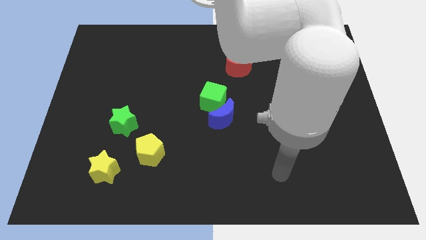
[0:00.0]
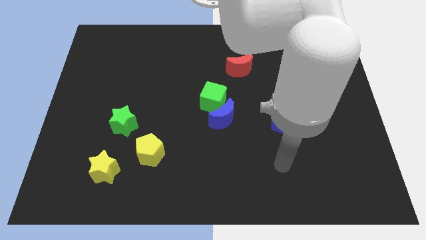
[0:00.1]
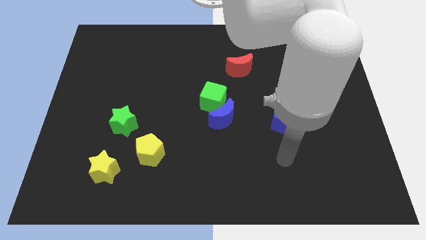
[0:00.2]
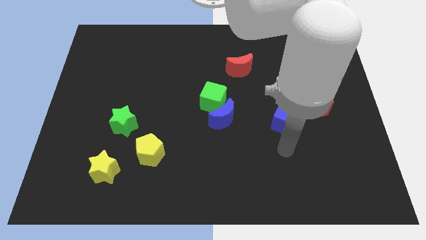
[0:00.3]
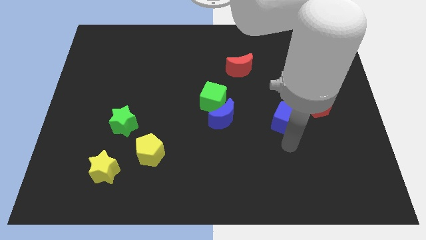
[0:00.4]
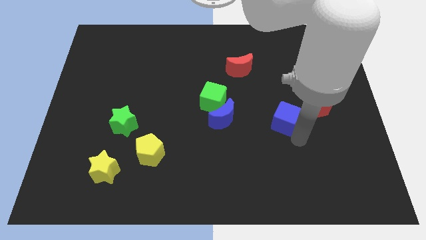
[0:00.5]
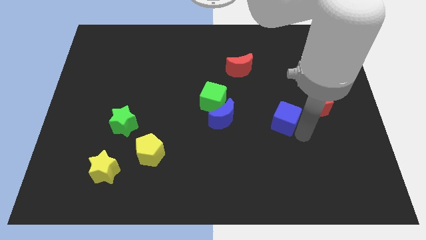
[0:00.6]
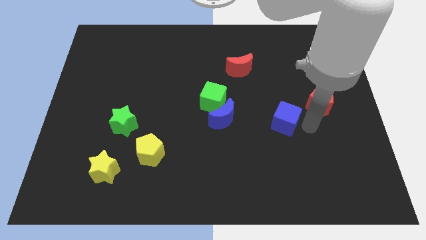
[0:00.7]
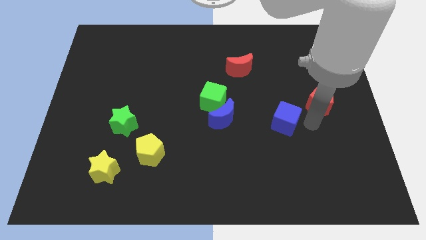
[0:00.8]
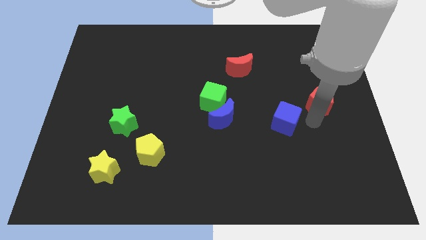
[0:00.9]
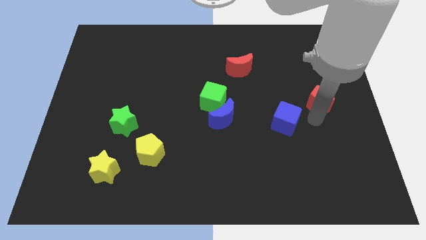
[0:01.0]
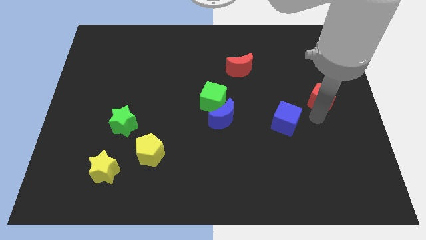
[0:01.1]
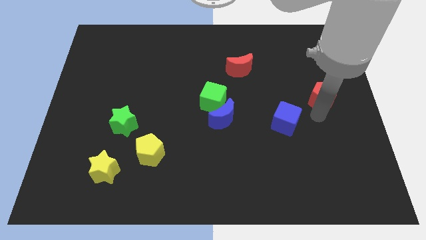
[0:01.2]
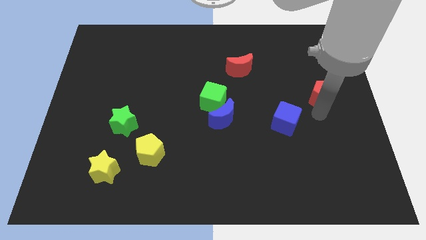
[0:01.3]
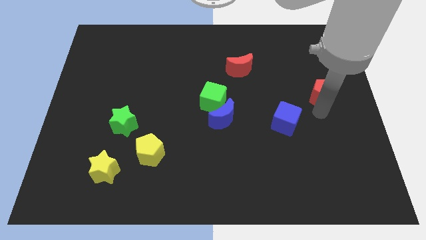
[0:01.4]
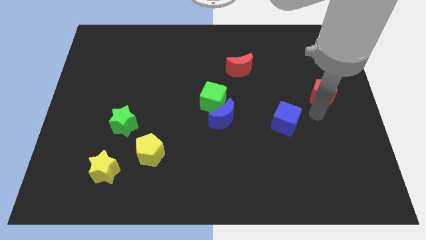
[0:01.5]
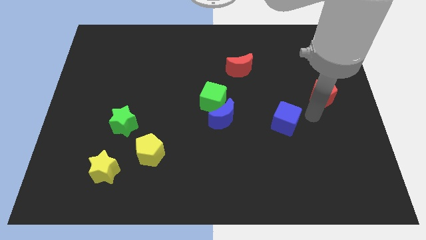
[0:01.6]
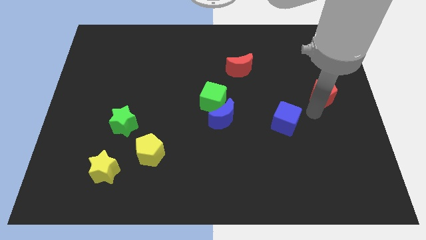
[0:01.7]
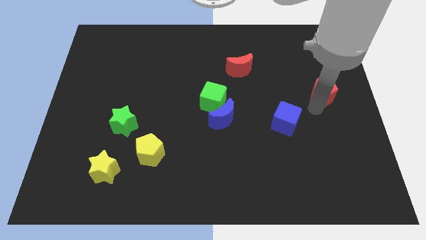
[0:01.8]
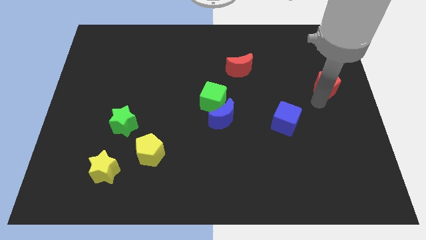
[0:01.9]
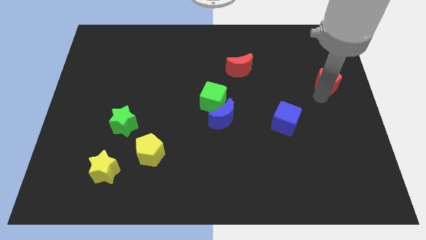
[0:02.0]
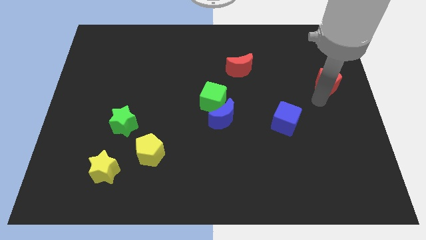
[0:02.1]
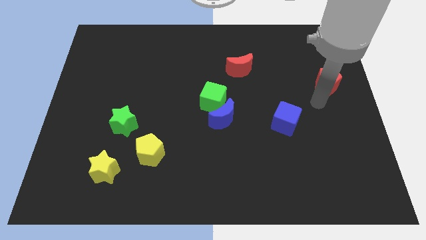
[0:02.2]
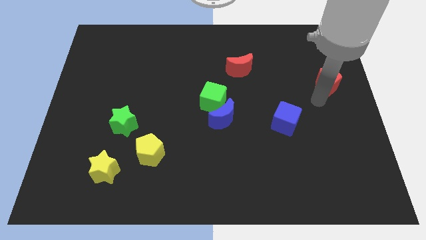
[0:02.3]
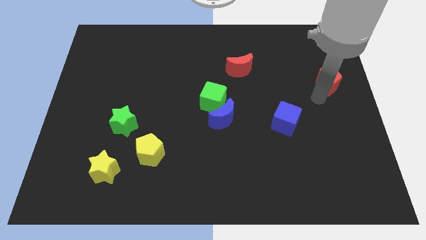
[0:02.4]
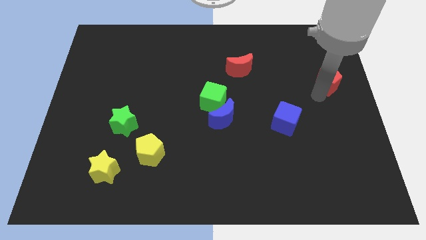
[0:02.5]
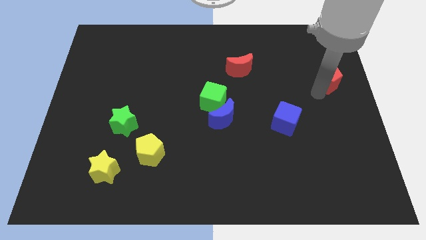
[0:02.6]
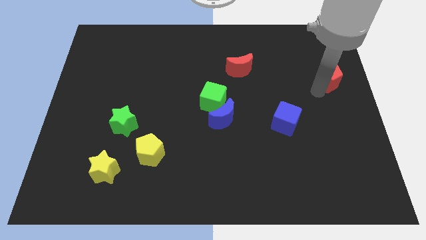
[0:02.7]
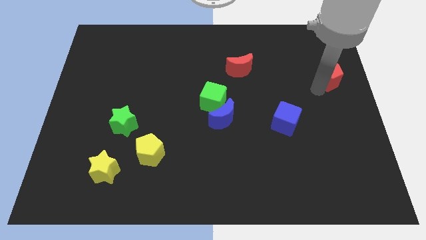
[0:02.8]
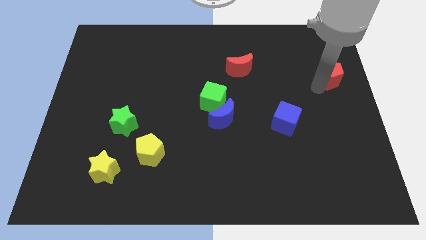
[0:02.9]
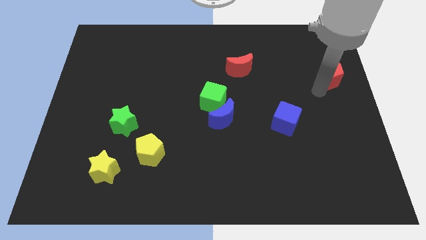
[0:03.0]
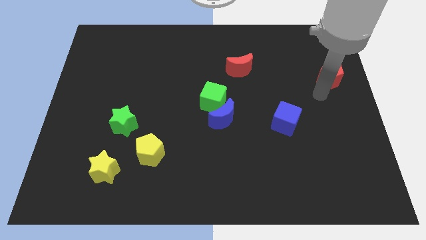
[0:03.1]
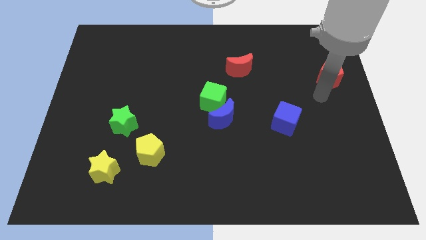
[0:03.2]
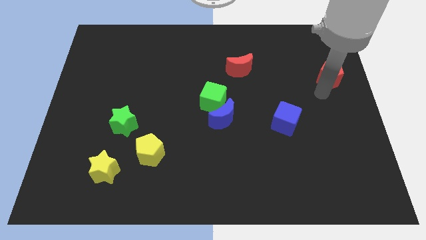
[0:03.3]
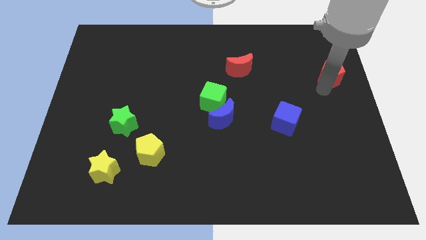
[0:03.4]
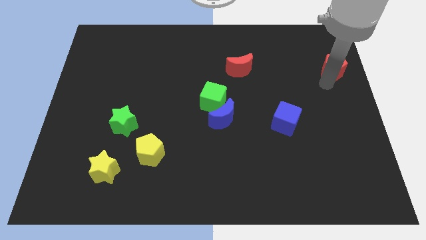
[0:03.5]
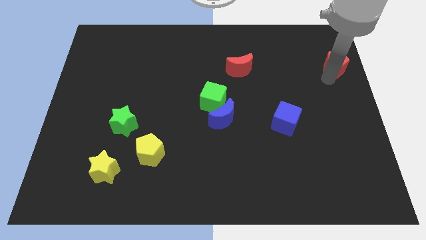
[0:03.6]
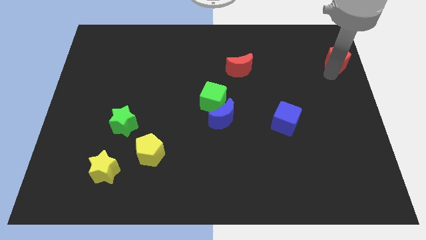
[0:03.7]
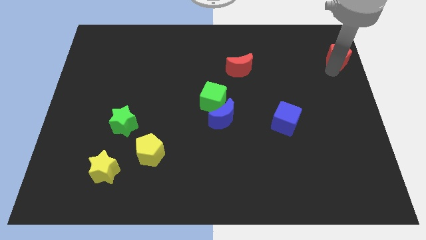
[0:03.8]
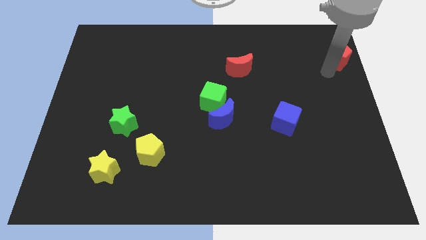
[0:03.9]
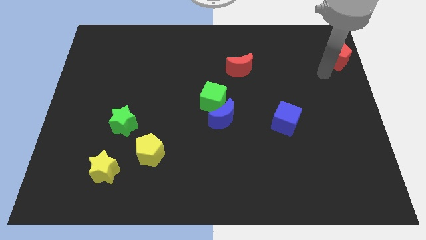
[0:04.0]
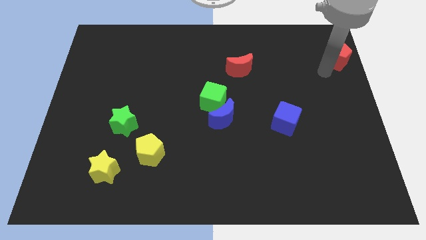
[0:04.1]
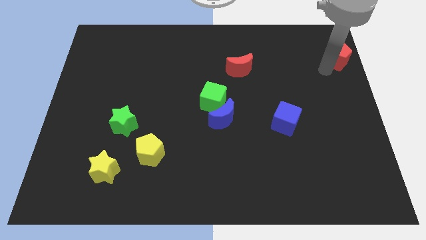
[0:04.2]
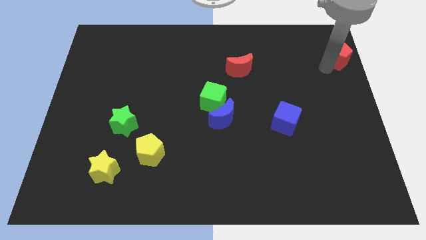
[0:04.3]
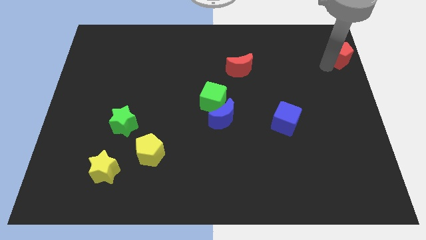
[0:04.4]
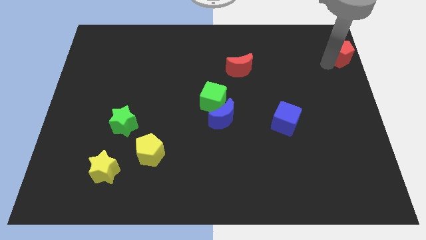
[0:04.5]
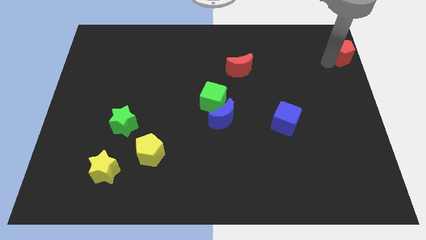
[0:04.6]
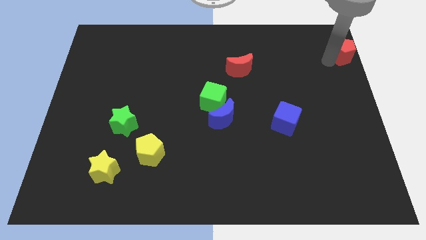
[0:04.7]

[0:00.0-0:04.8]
move the red pentagon to the top right of the board

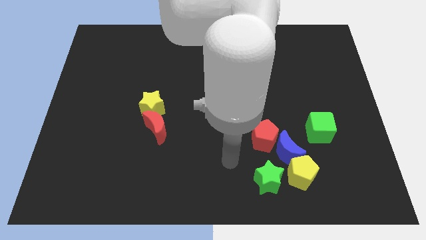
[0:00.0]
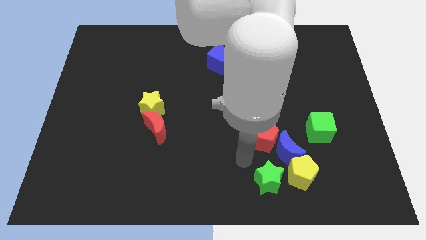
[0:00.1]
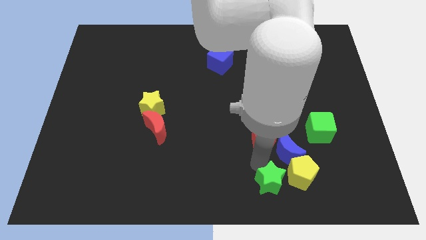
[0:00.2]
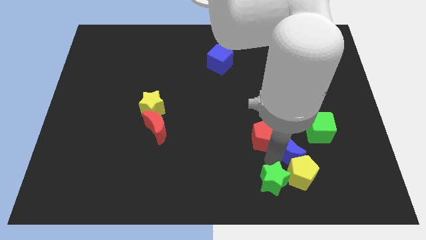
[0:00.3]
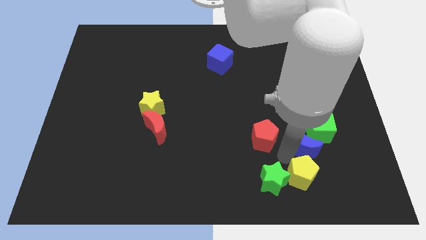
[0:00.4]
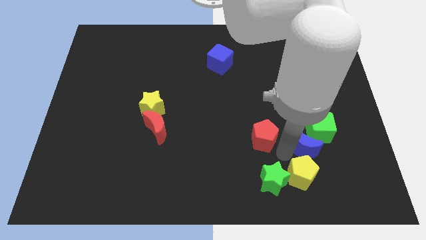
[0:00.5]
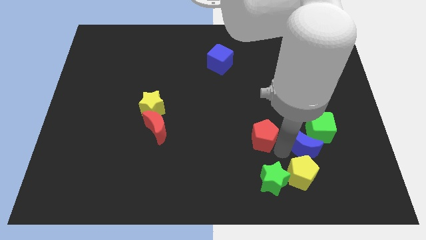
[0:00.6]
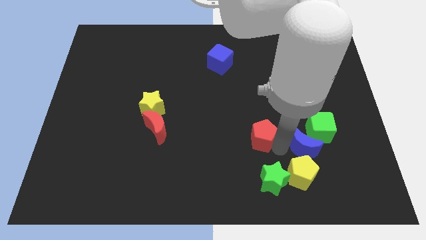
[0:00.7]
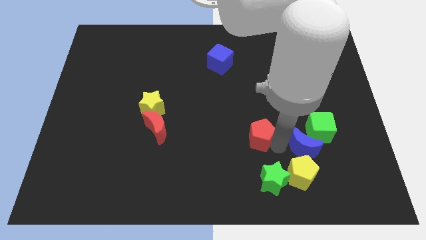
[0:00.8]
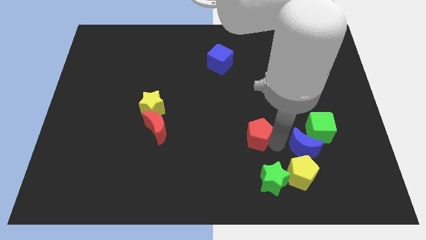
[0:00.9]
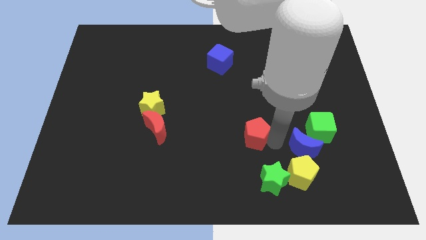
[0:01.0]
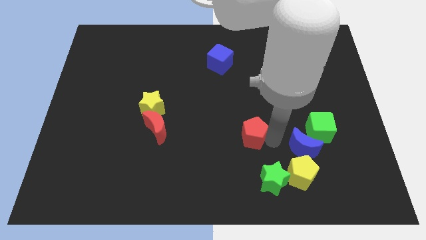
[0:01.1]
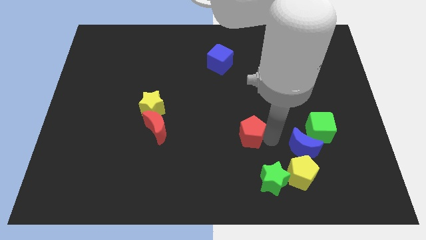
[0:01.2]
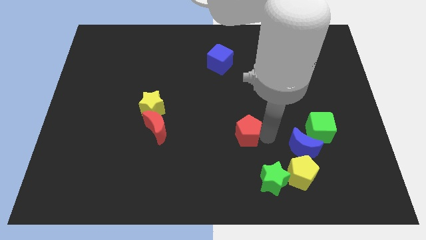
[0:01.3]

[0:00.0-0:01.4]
push the red pentagon to the middle
